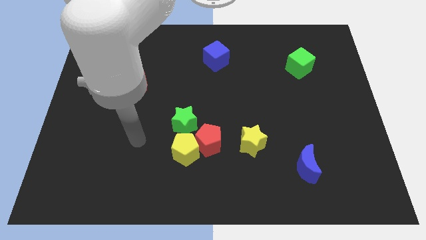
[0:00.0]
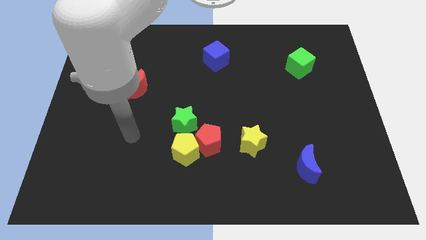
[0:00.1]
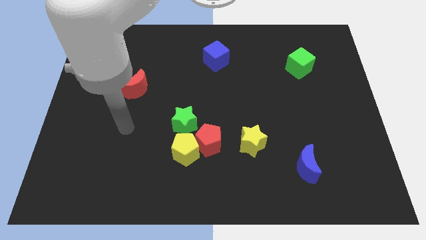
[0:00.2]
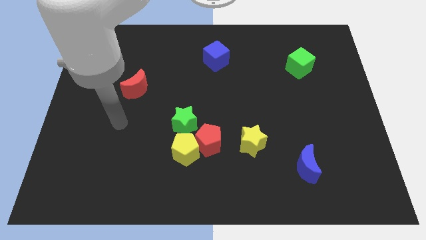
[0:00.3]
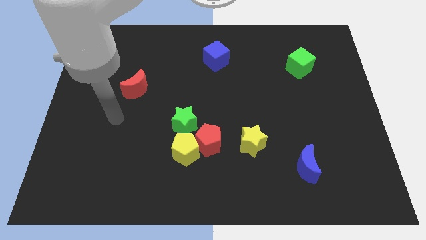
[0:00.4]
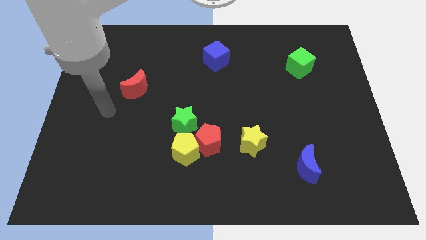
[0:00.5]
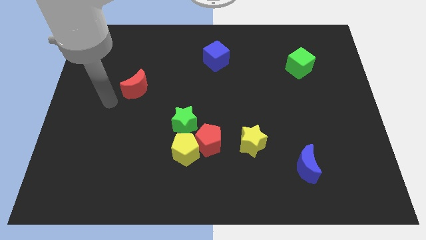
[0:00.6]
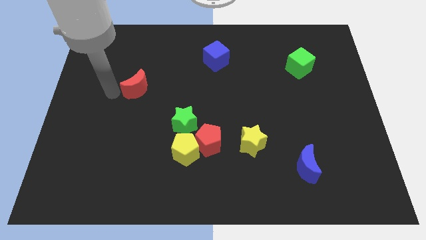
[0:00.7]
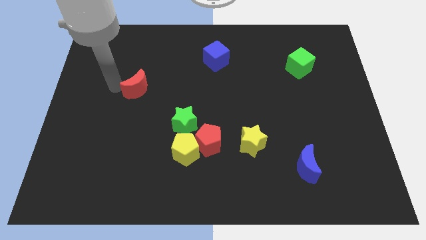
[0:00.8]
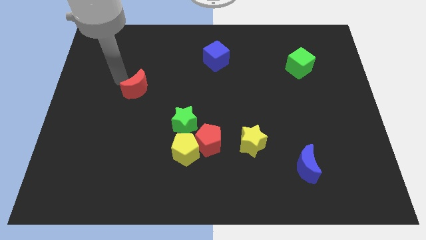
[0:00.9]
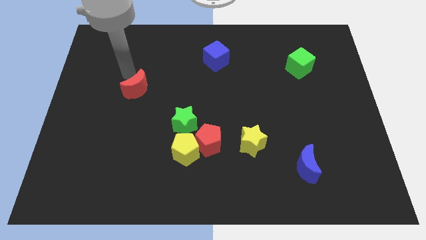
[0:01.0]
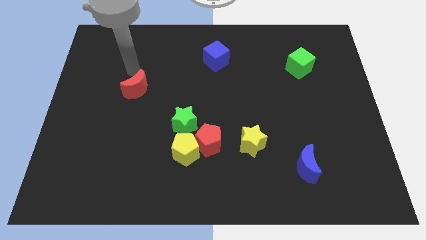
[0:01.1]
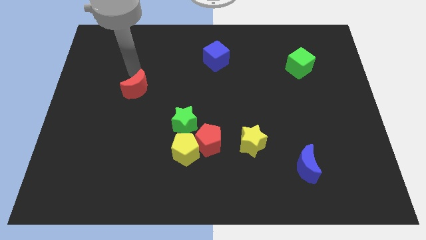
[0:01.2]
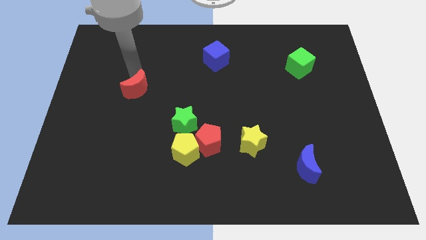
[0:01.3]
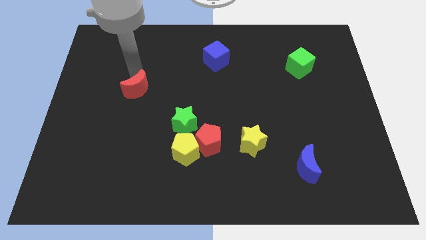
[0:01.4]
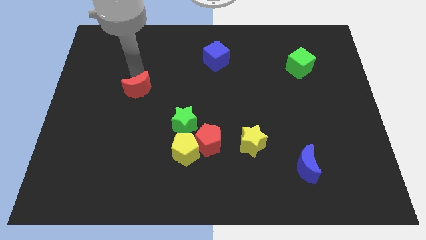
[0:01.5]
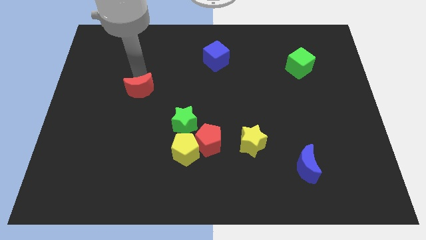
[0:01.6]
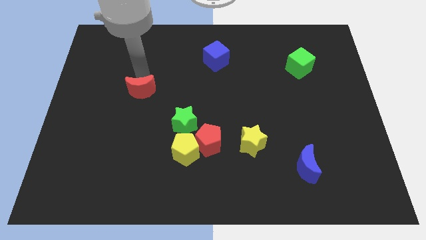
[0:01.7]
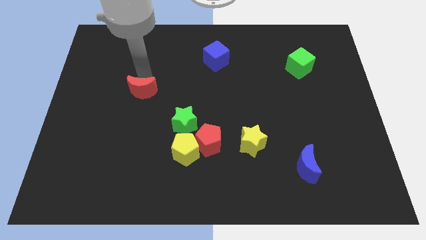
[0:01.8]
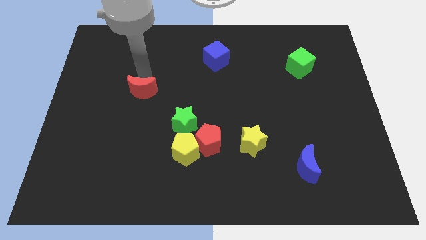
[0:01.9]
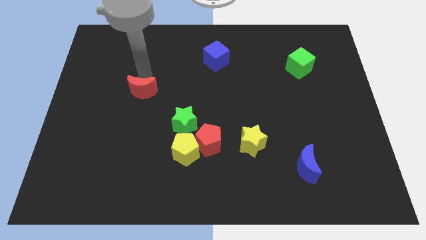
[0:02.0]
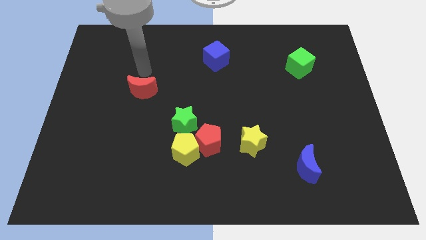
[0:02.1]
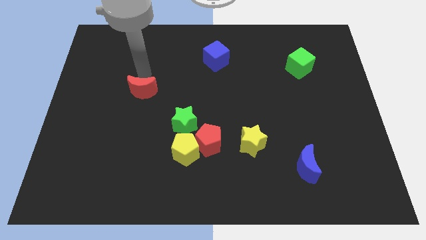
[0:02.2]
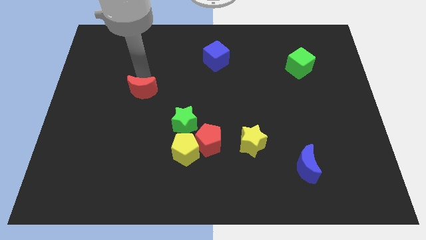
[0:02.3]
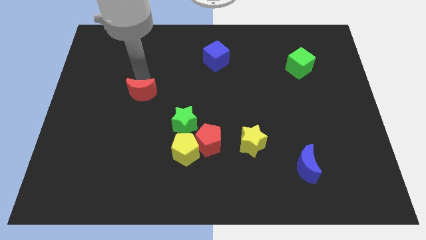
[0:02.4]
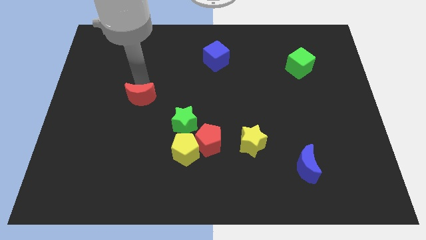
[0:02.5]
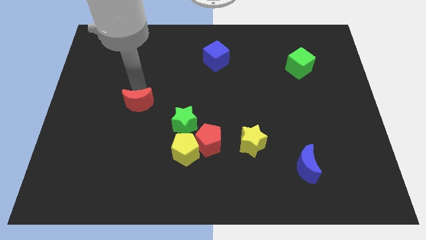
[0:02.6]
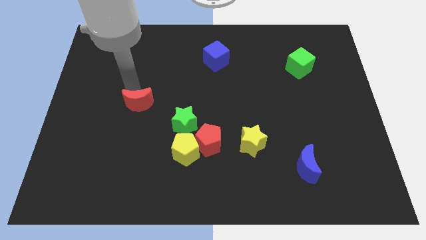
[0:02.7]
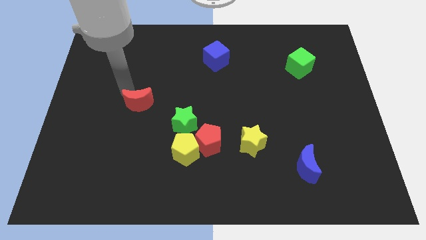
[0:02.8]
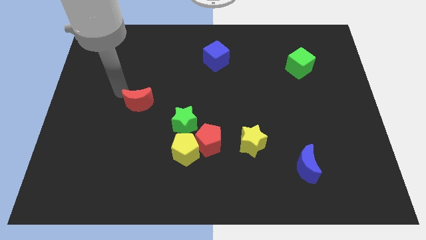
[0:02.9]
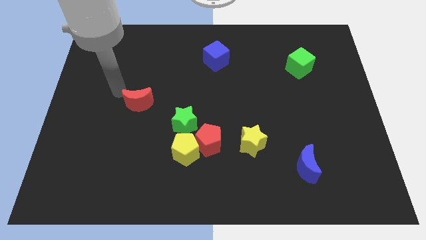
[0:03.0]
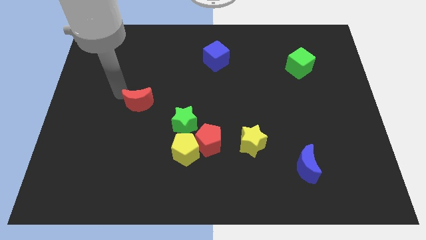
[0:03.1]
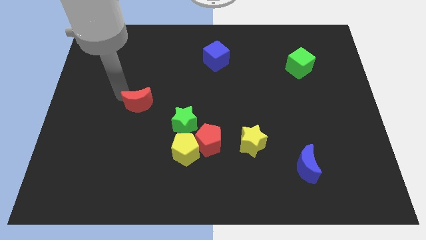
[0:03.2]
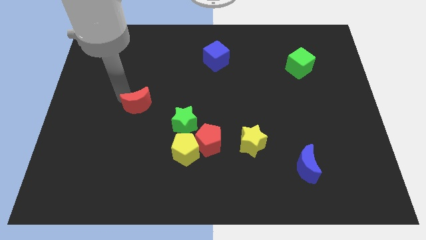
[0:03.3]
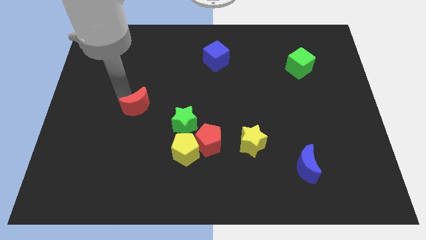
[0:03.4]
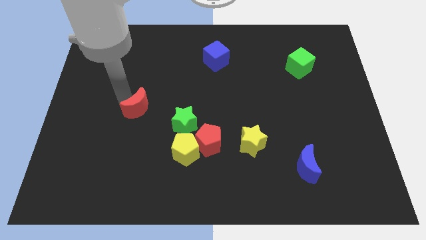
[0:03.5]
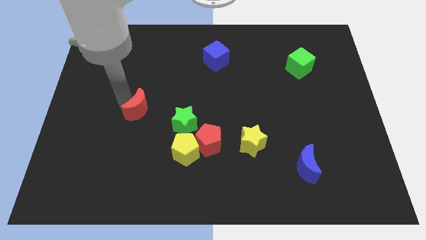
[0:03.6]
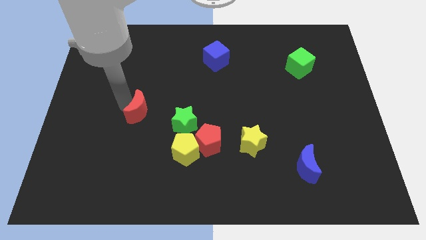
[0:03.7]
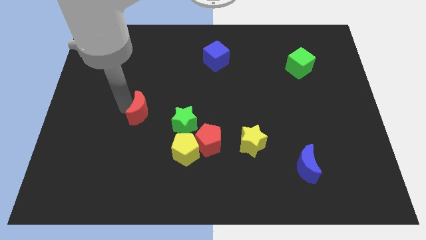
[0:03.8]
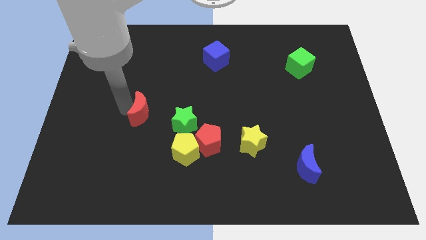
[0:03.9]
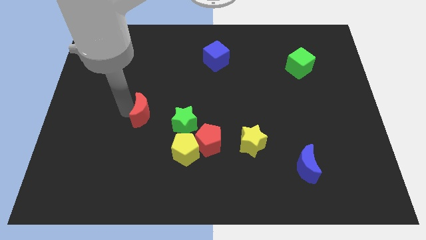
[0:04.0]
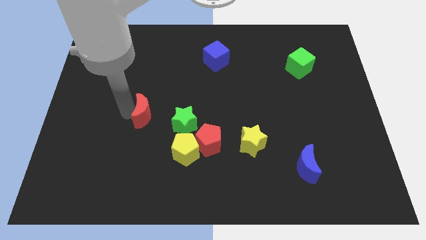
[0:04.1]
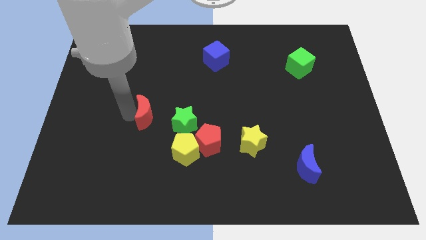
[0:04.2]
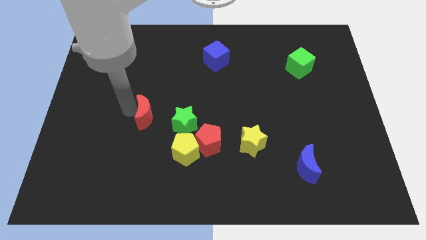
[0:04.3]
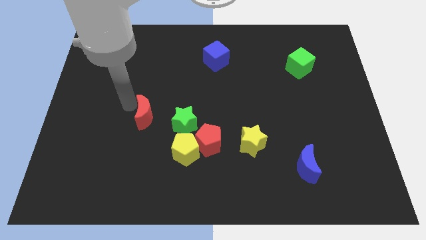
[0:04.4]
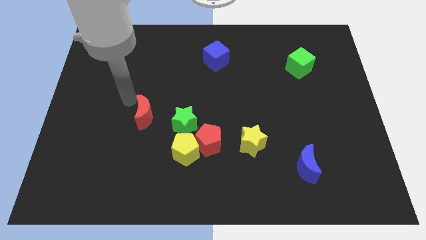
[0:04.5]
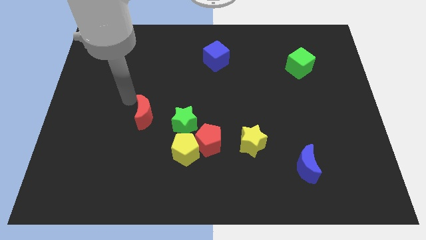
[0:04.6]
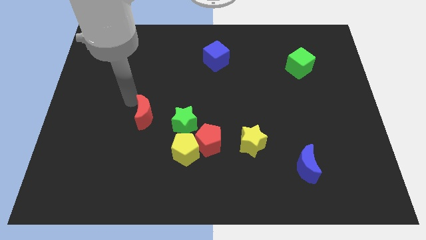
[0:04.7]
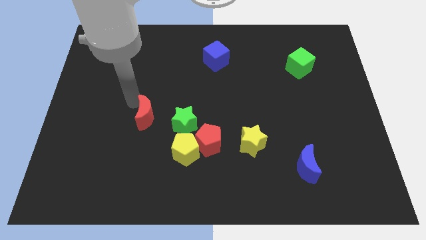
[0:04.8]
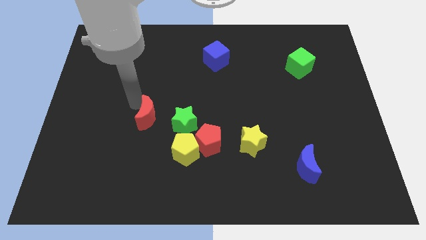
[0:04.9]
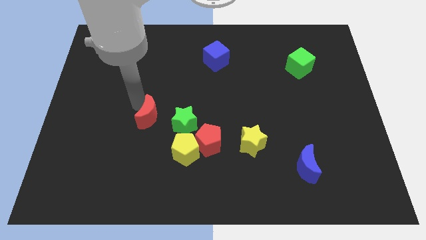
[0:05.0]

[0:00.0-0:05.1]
push the red moon to the top left side of the yellow pentagon

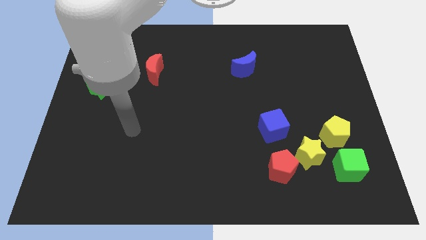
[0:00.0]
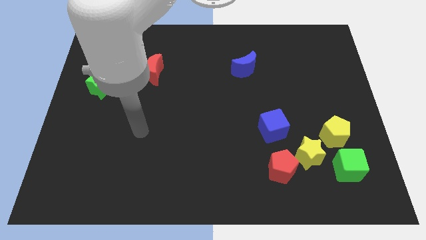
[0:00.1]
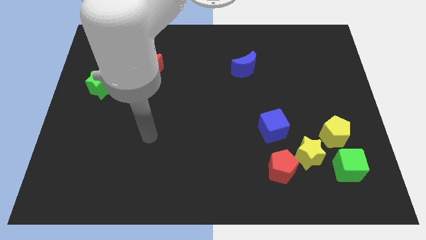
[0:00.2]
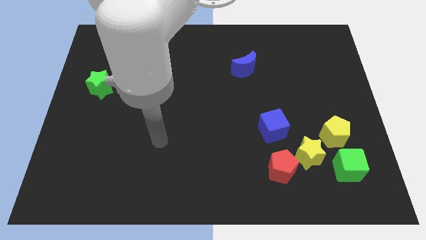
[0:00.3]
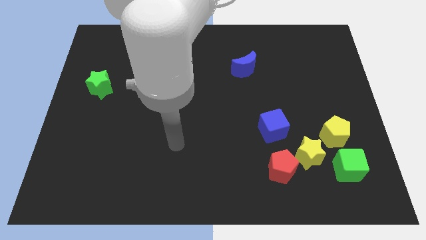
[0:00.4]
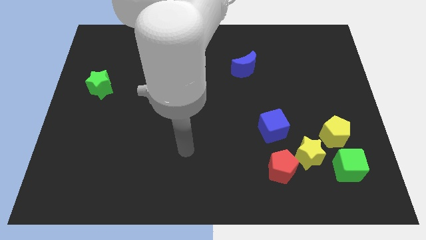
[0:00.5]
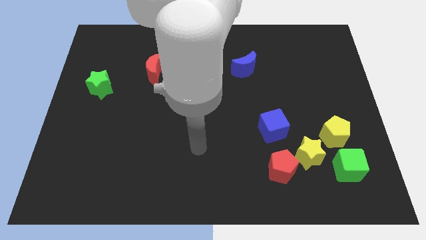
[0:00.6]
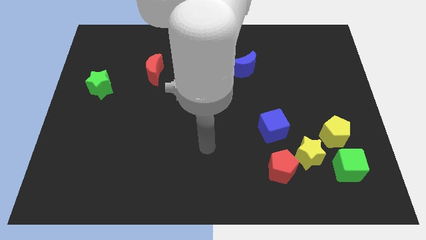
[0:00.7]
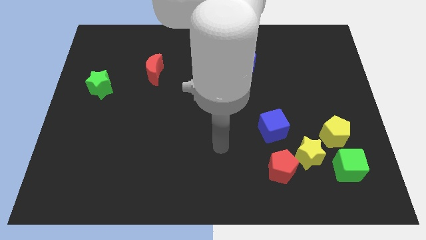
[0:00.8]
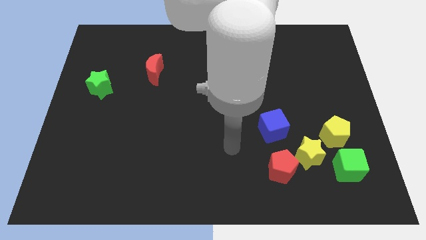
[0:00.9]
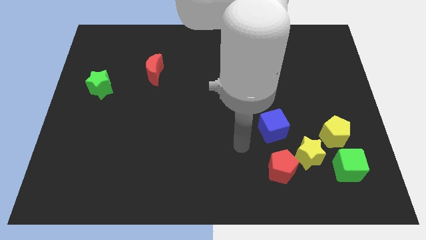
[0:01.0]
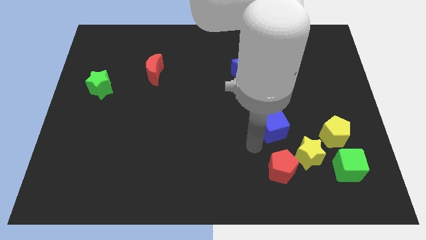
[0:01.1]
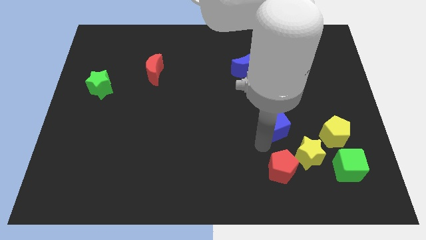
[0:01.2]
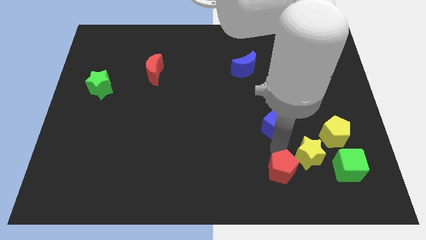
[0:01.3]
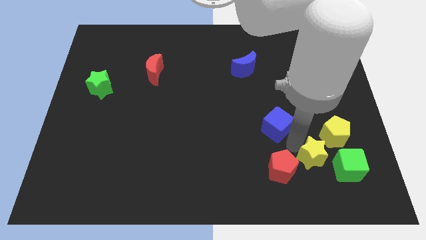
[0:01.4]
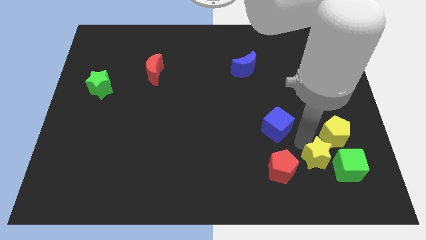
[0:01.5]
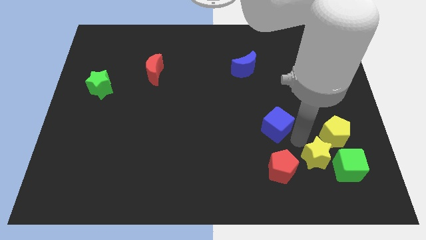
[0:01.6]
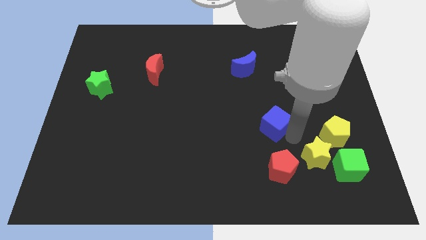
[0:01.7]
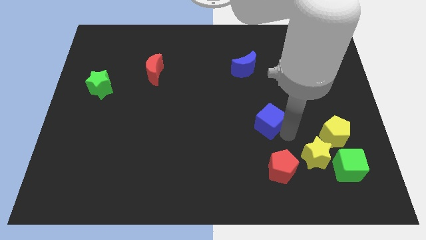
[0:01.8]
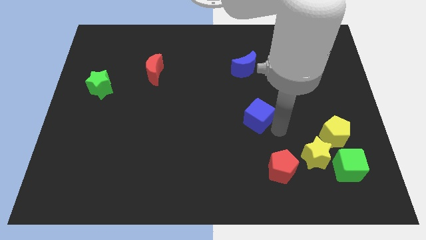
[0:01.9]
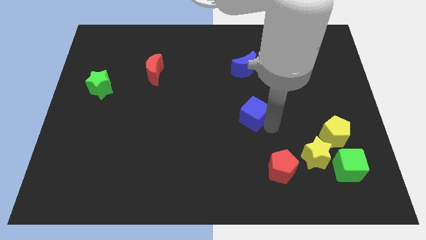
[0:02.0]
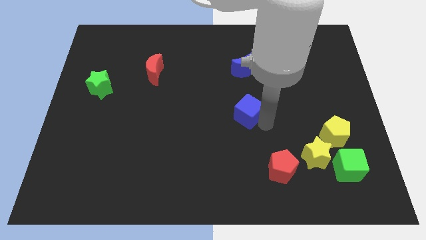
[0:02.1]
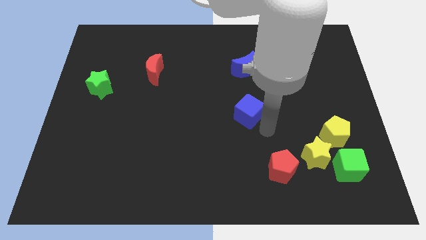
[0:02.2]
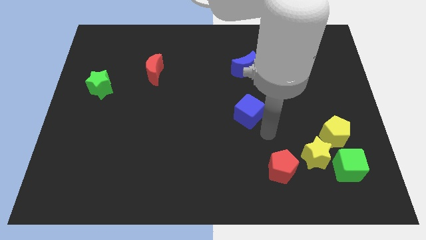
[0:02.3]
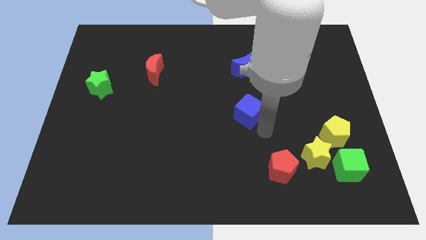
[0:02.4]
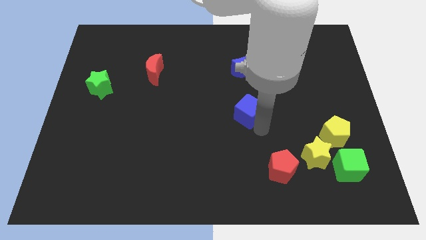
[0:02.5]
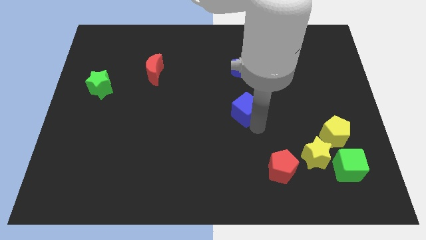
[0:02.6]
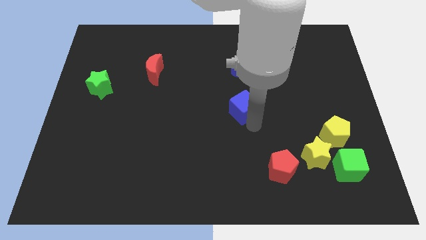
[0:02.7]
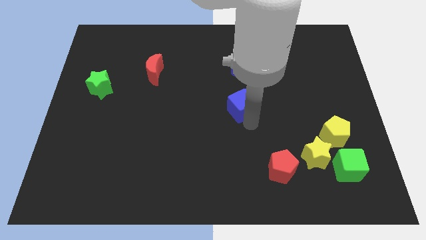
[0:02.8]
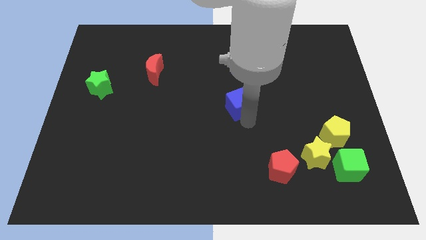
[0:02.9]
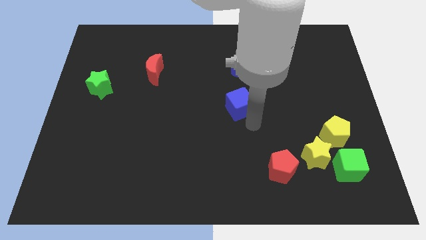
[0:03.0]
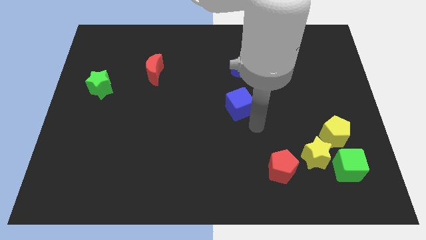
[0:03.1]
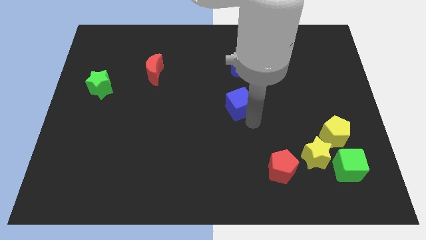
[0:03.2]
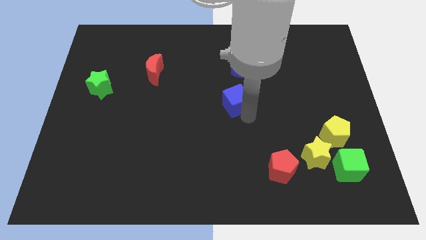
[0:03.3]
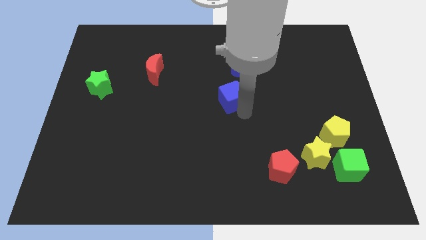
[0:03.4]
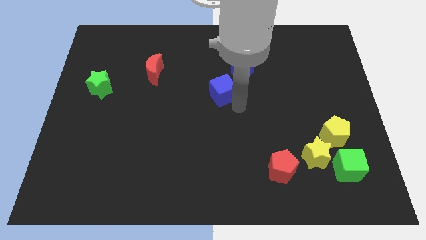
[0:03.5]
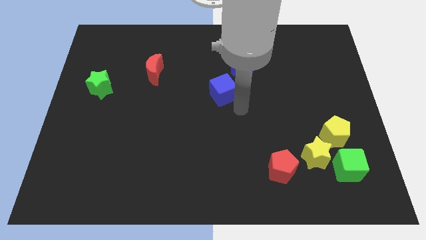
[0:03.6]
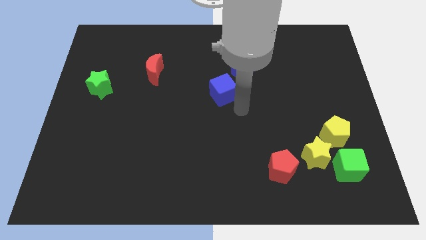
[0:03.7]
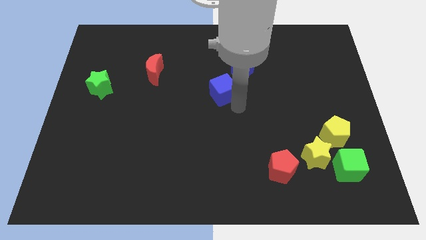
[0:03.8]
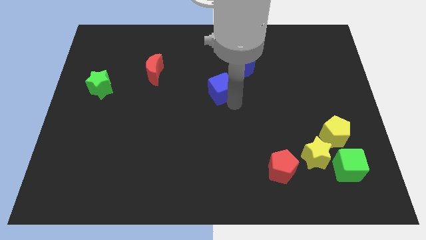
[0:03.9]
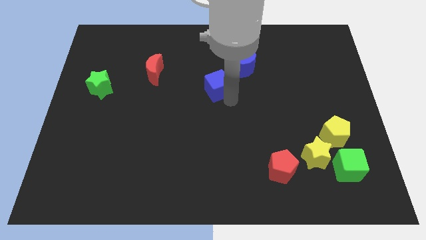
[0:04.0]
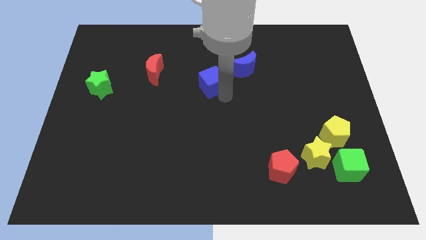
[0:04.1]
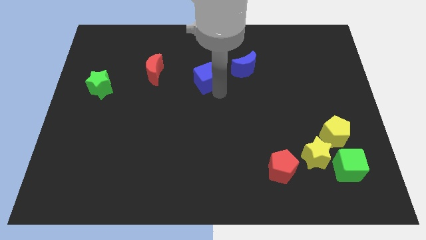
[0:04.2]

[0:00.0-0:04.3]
put the blue cube to the left of the blue moon
